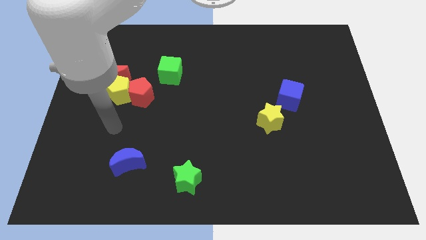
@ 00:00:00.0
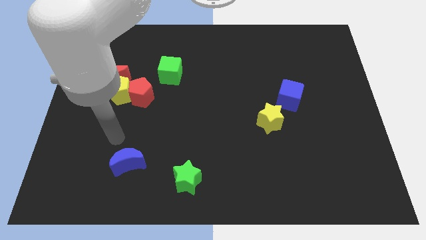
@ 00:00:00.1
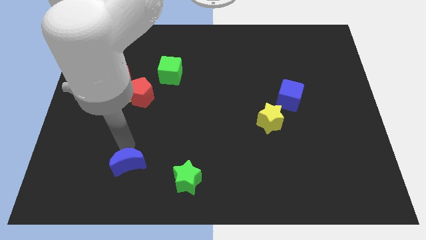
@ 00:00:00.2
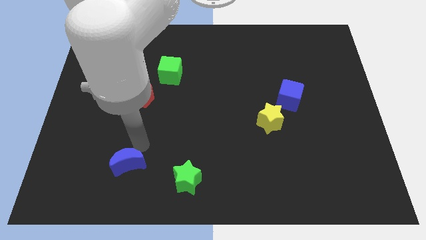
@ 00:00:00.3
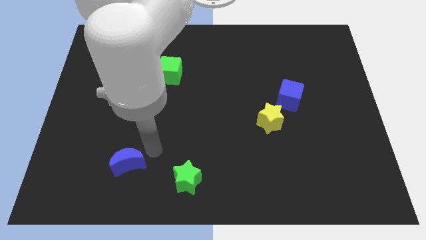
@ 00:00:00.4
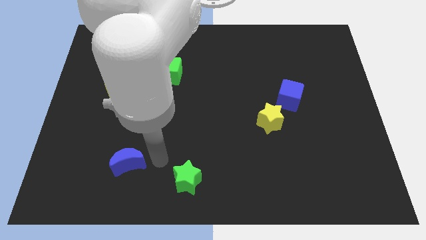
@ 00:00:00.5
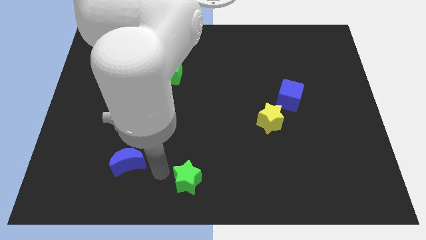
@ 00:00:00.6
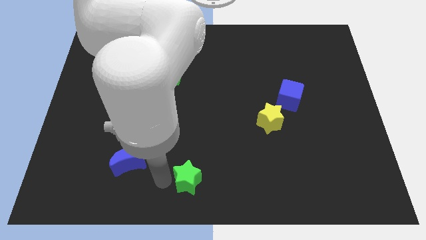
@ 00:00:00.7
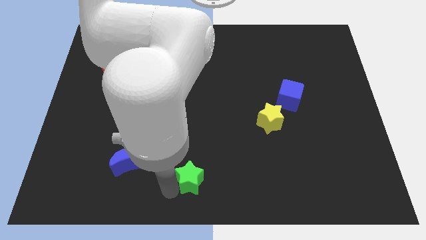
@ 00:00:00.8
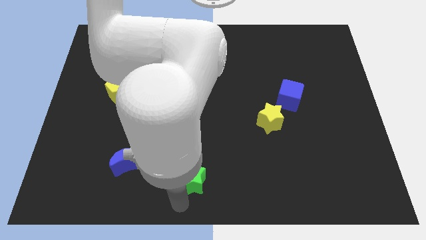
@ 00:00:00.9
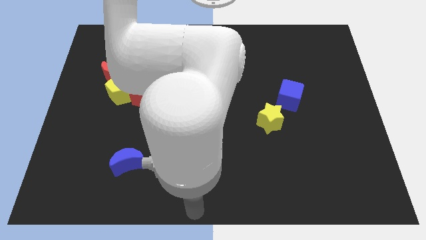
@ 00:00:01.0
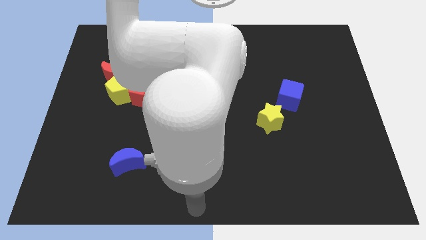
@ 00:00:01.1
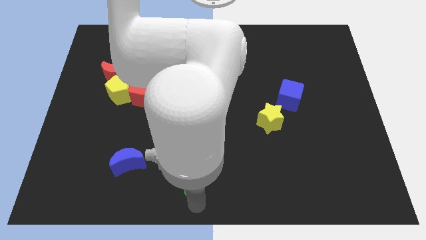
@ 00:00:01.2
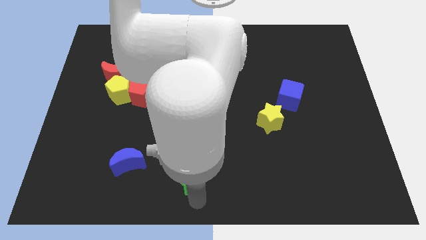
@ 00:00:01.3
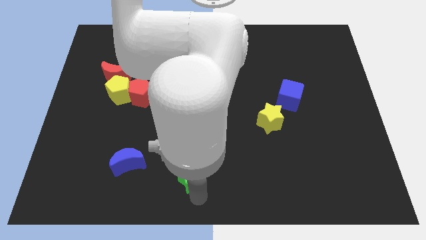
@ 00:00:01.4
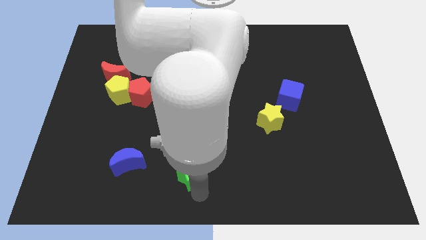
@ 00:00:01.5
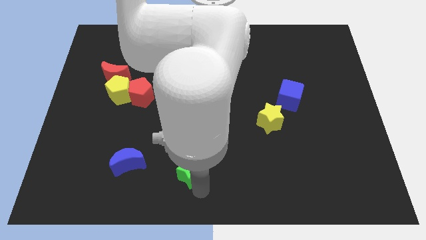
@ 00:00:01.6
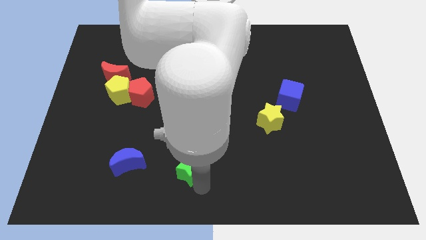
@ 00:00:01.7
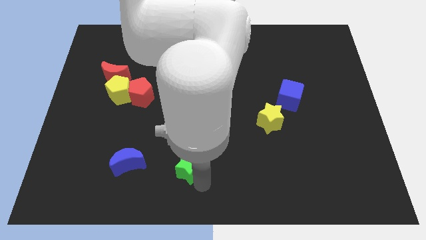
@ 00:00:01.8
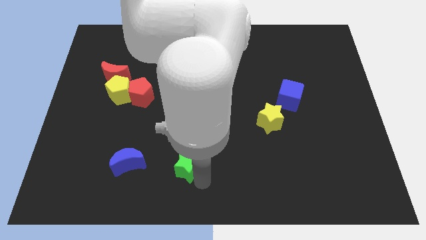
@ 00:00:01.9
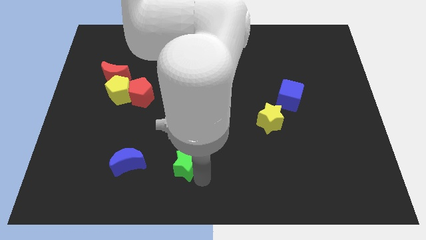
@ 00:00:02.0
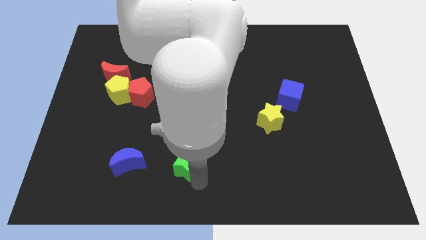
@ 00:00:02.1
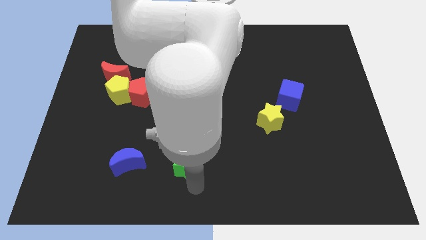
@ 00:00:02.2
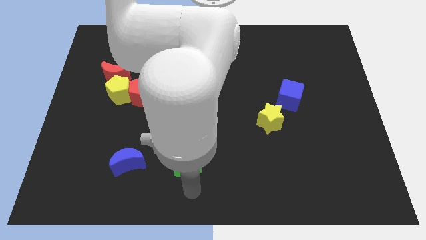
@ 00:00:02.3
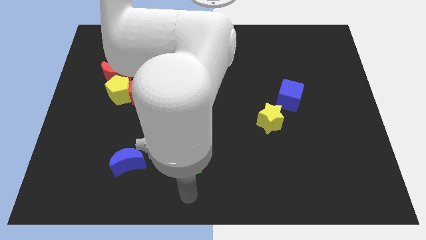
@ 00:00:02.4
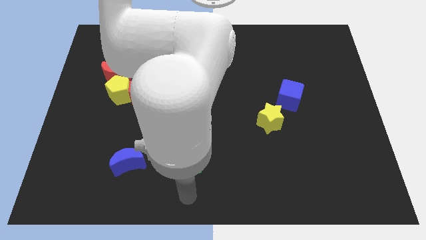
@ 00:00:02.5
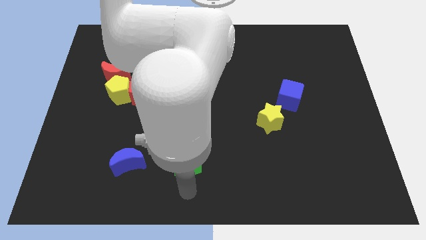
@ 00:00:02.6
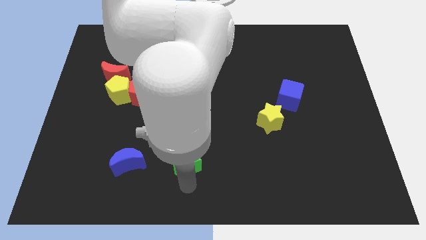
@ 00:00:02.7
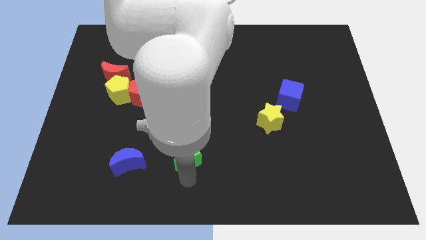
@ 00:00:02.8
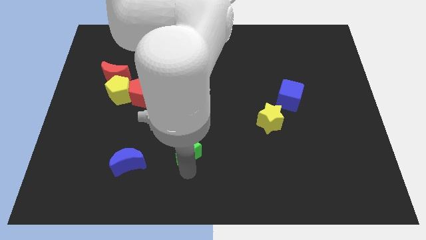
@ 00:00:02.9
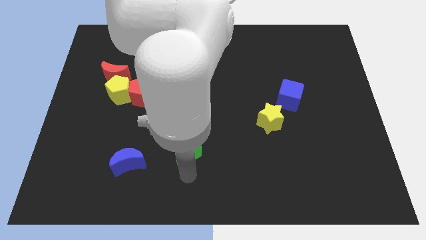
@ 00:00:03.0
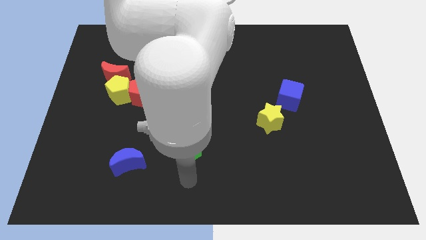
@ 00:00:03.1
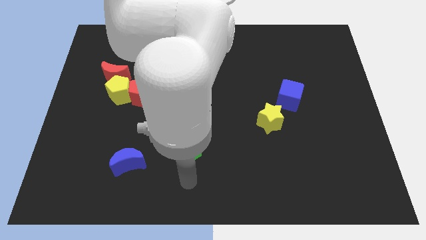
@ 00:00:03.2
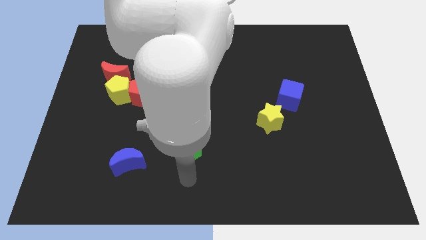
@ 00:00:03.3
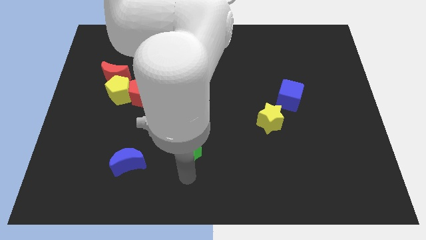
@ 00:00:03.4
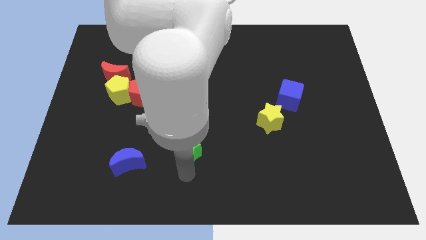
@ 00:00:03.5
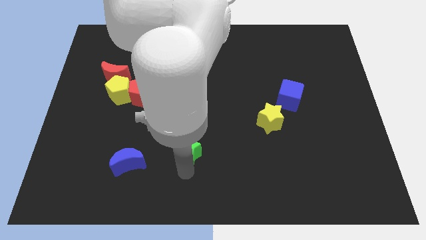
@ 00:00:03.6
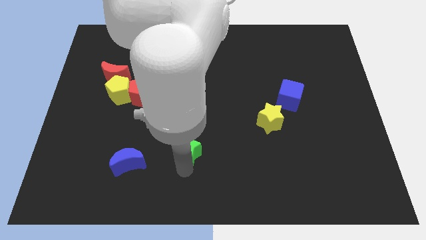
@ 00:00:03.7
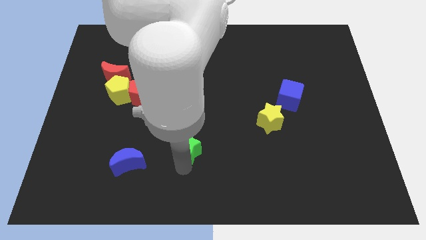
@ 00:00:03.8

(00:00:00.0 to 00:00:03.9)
move the green star a little up

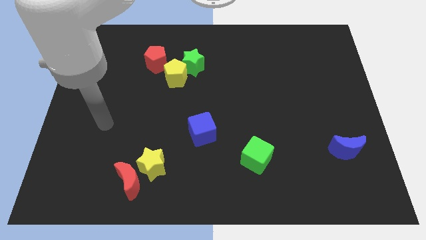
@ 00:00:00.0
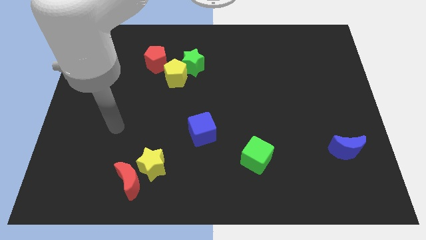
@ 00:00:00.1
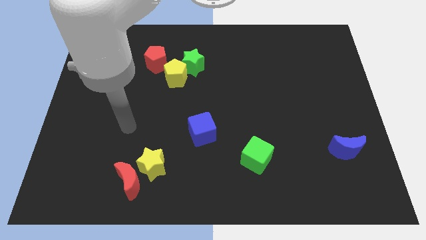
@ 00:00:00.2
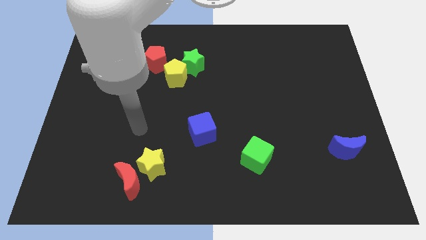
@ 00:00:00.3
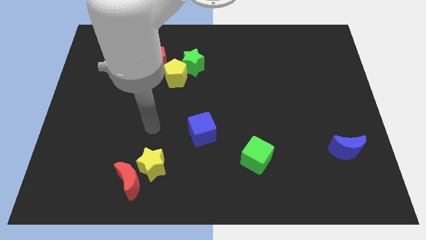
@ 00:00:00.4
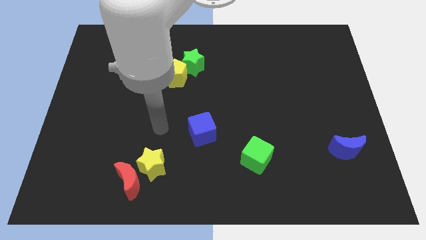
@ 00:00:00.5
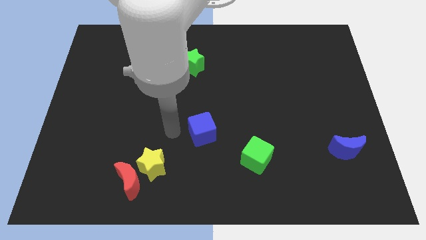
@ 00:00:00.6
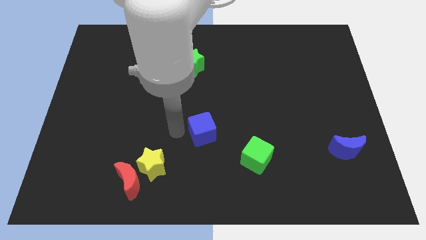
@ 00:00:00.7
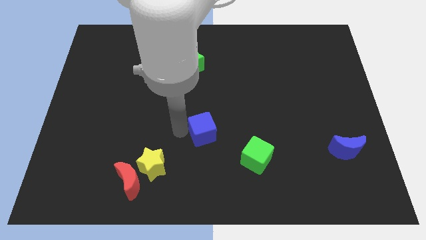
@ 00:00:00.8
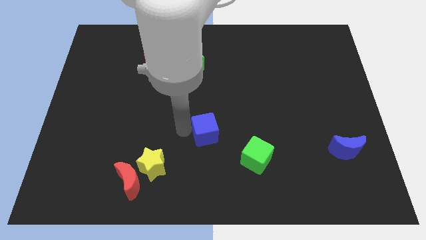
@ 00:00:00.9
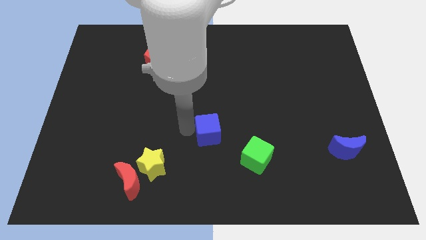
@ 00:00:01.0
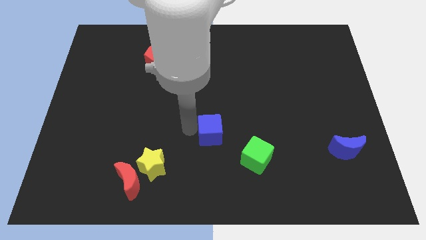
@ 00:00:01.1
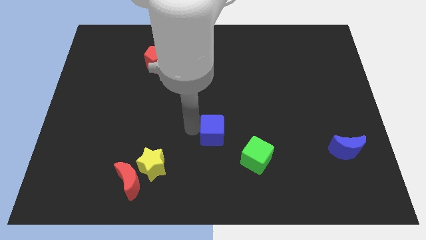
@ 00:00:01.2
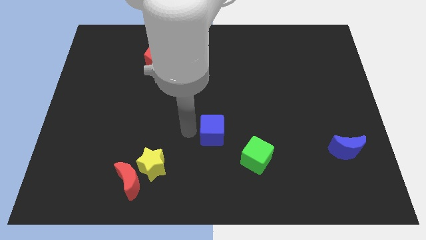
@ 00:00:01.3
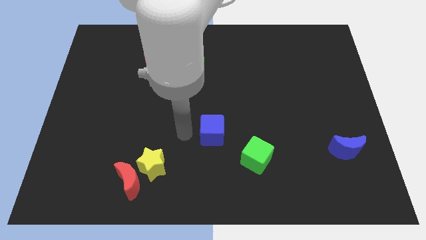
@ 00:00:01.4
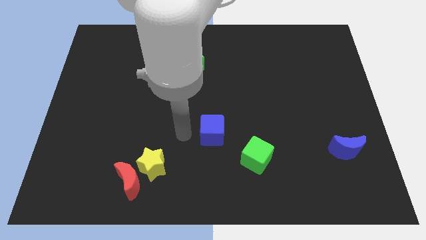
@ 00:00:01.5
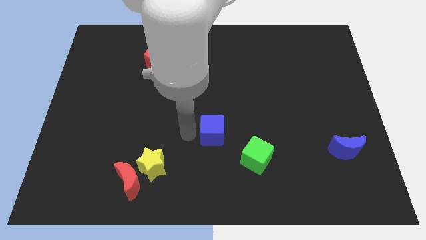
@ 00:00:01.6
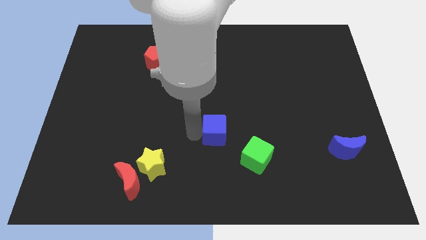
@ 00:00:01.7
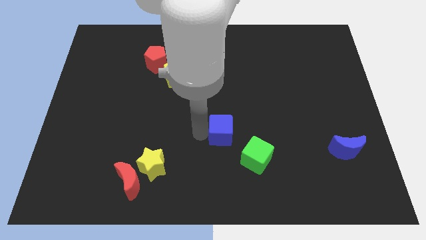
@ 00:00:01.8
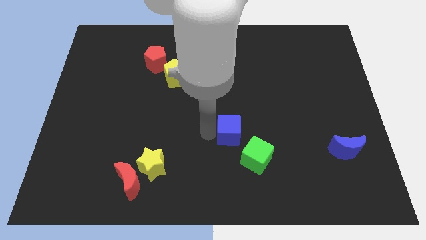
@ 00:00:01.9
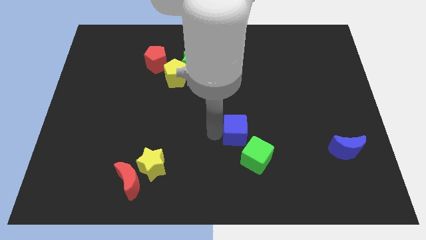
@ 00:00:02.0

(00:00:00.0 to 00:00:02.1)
push the blue cube to the right a little bit

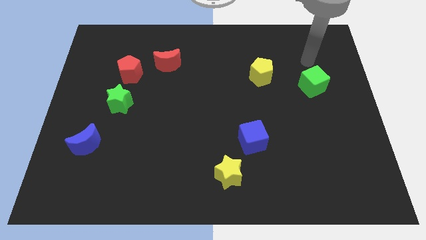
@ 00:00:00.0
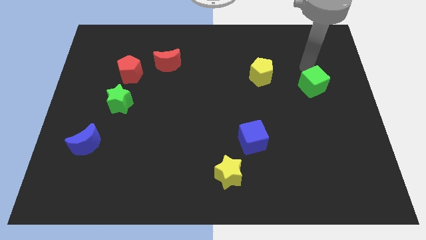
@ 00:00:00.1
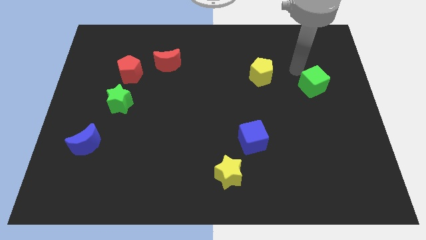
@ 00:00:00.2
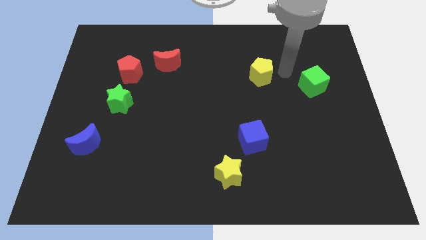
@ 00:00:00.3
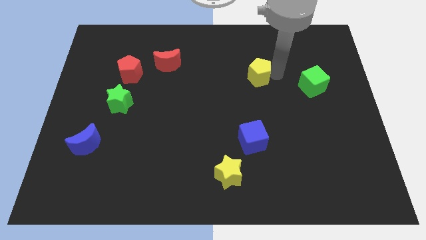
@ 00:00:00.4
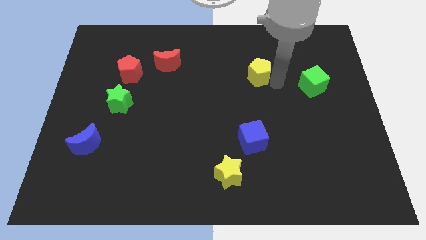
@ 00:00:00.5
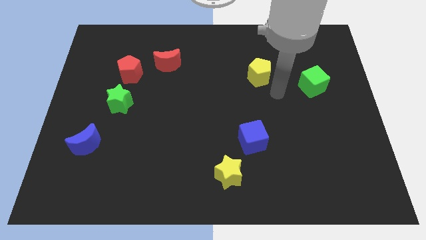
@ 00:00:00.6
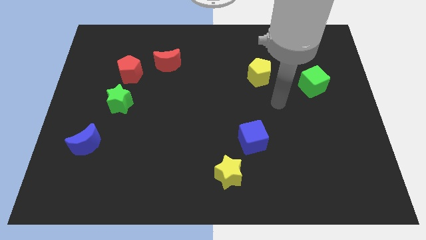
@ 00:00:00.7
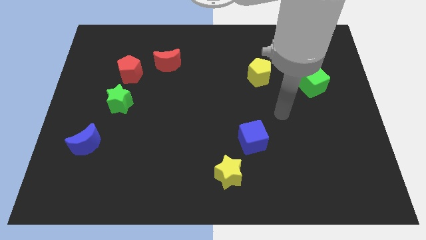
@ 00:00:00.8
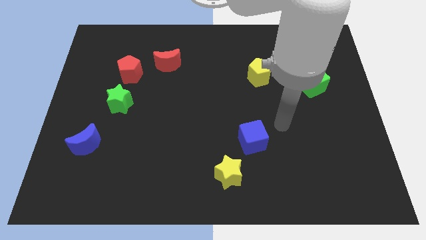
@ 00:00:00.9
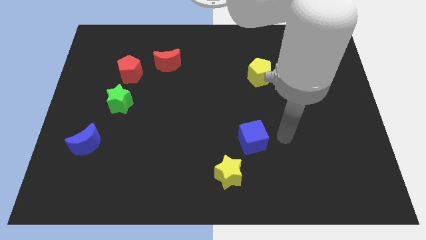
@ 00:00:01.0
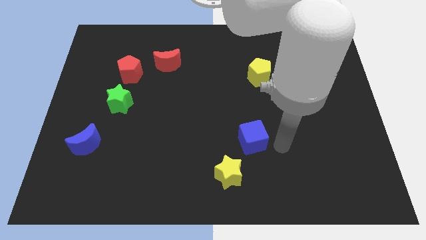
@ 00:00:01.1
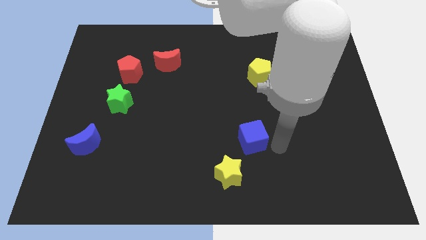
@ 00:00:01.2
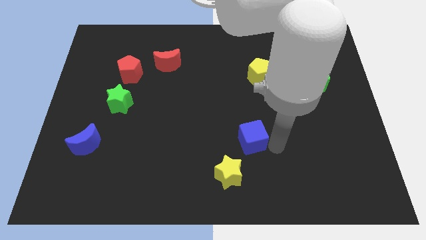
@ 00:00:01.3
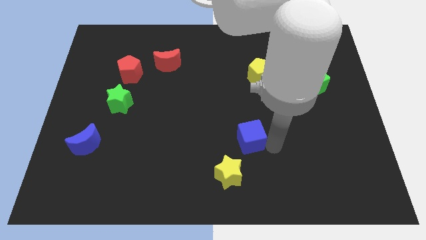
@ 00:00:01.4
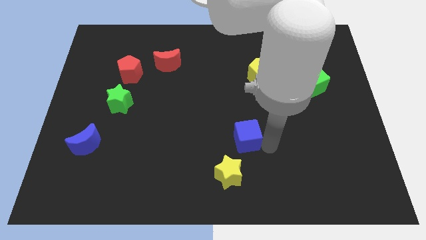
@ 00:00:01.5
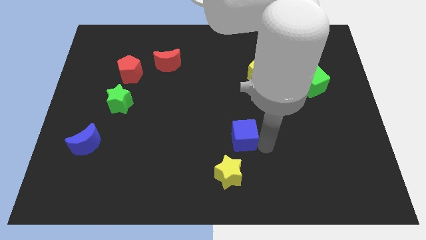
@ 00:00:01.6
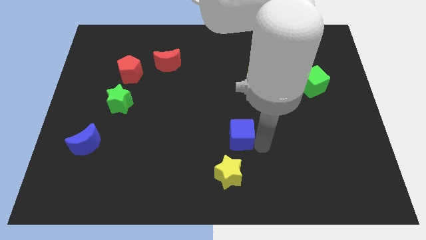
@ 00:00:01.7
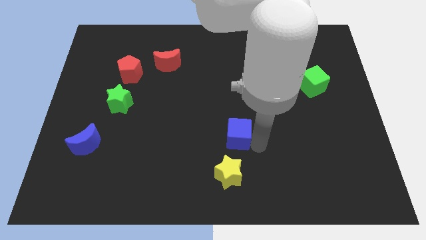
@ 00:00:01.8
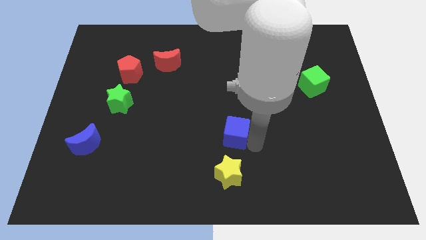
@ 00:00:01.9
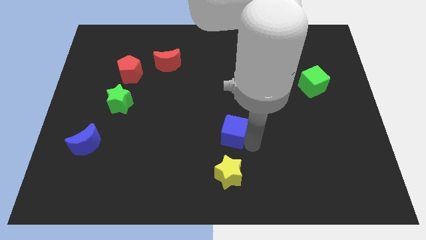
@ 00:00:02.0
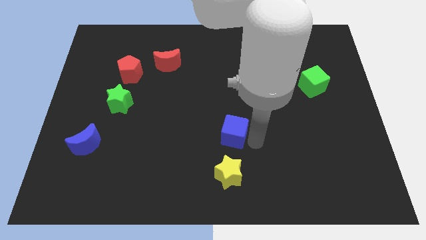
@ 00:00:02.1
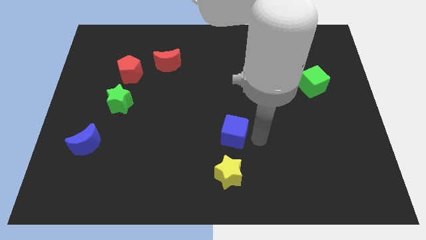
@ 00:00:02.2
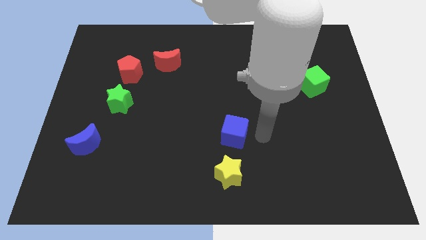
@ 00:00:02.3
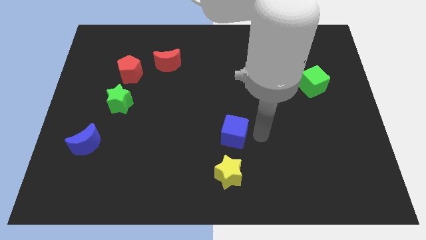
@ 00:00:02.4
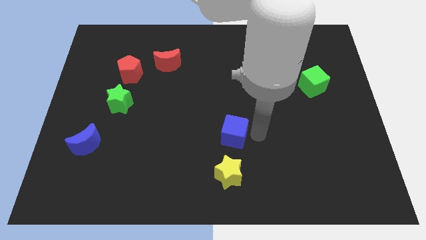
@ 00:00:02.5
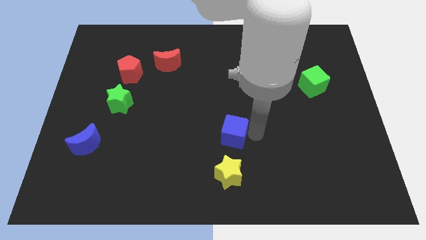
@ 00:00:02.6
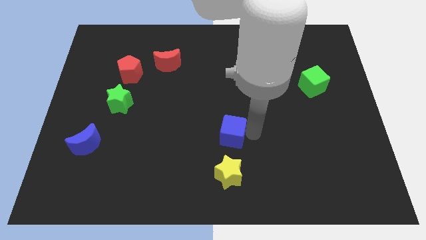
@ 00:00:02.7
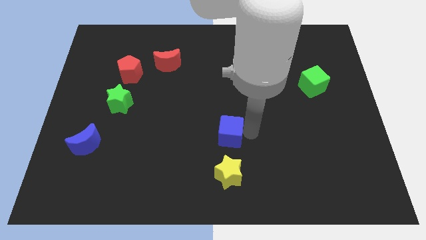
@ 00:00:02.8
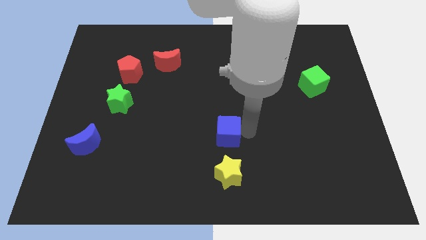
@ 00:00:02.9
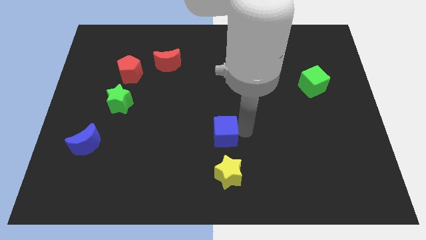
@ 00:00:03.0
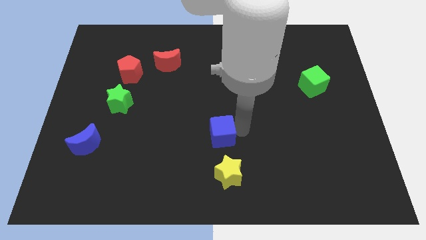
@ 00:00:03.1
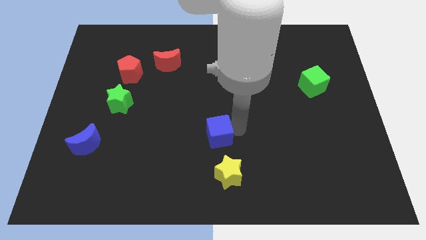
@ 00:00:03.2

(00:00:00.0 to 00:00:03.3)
push the blue cube left a little
